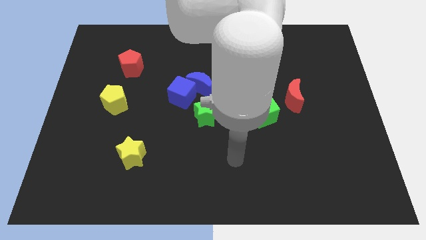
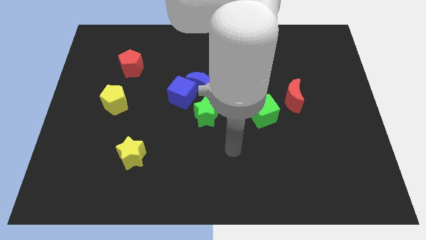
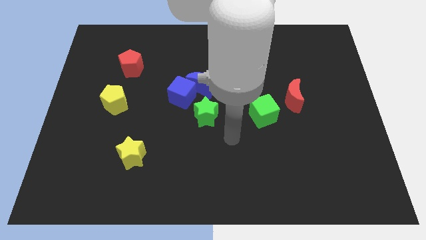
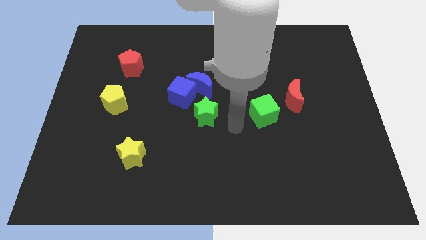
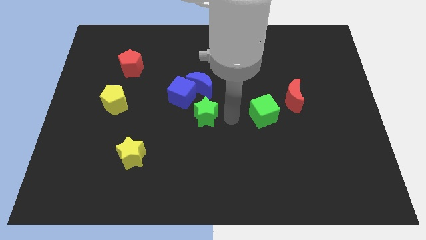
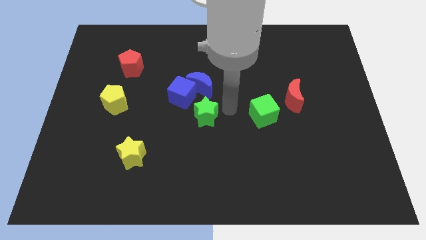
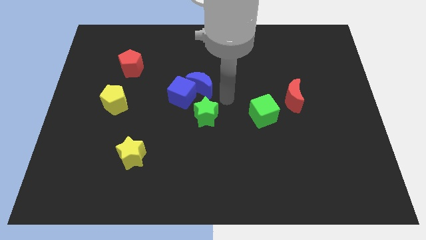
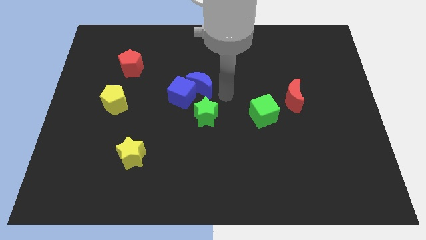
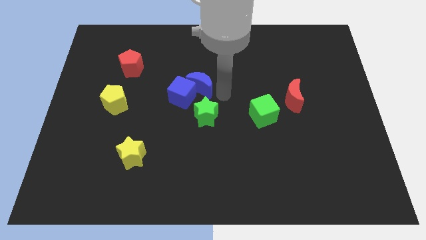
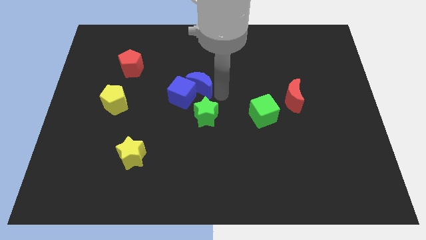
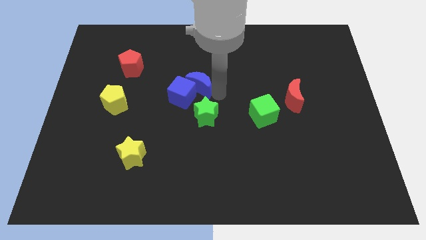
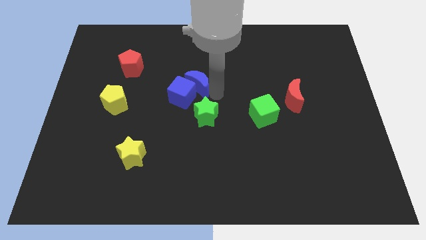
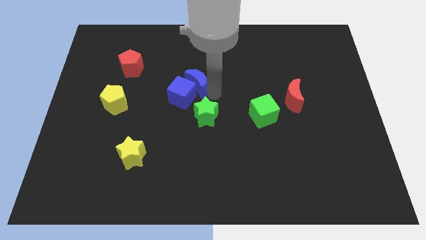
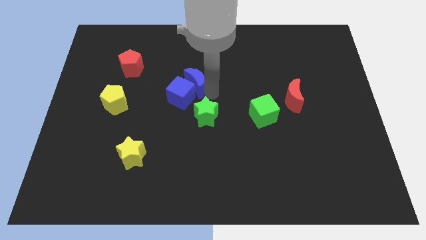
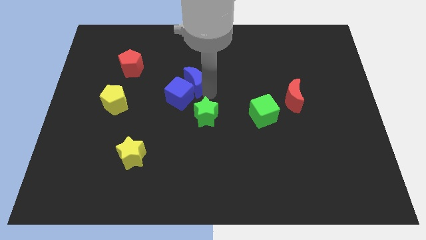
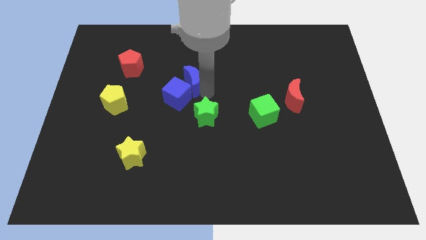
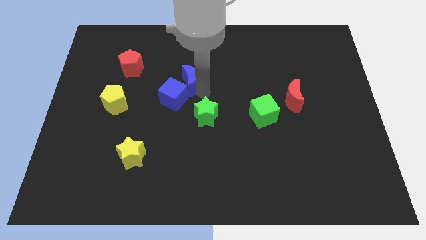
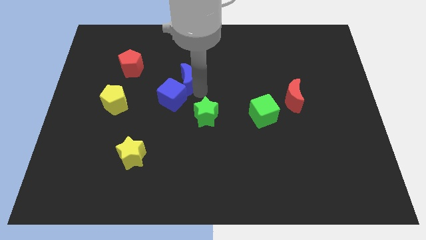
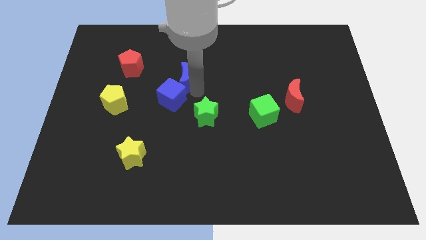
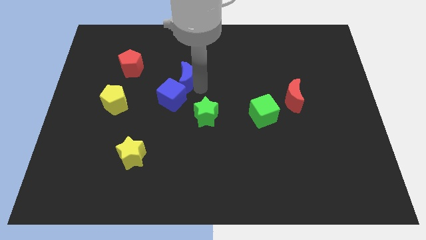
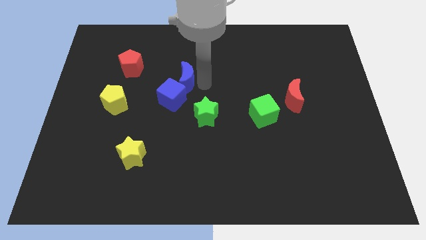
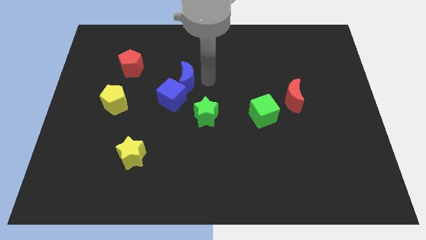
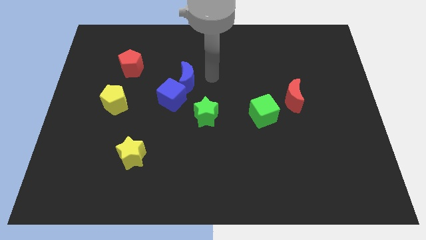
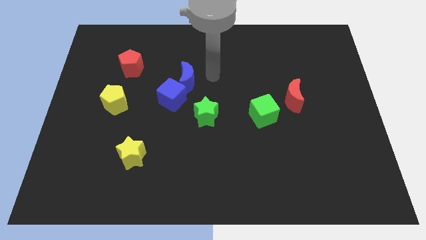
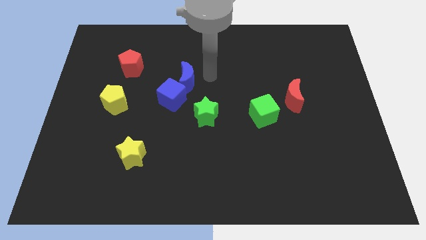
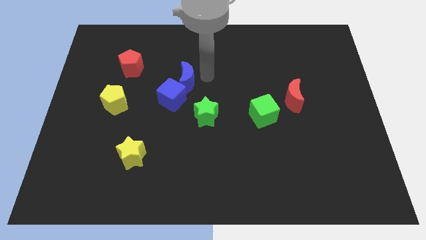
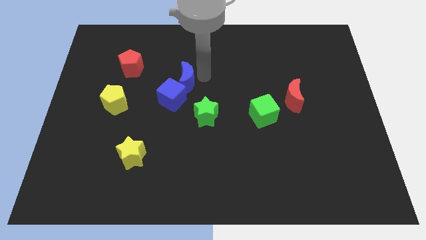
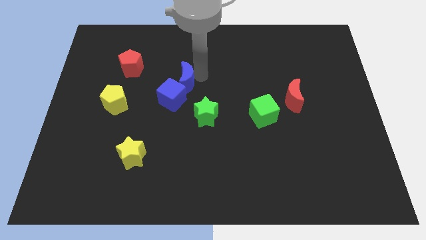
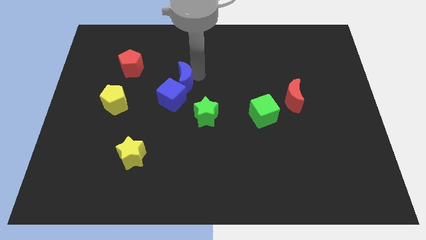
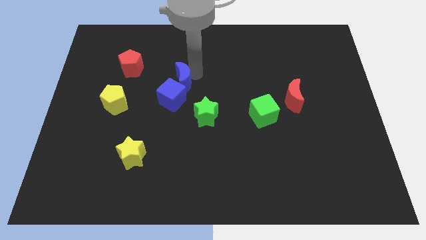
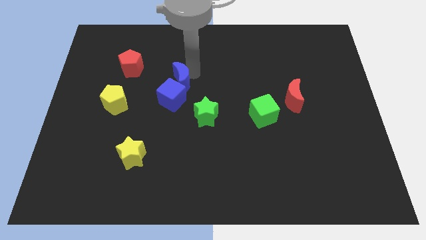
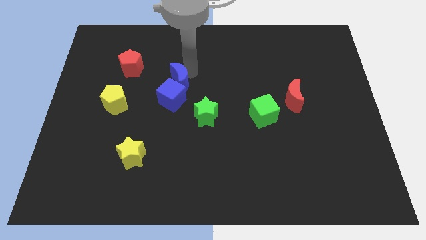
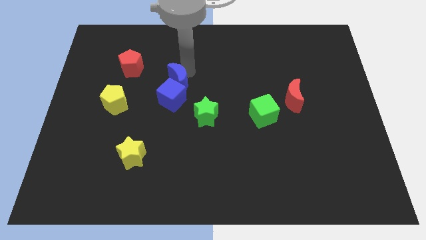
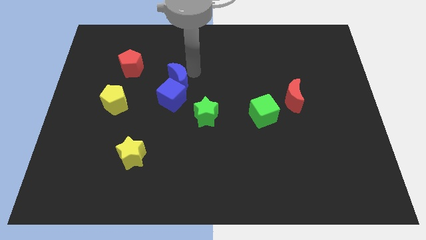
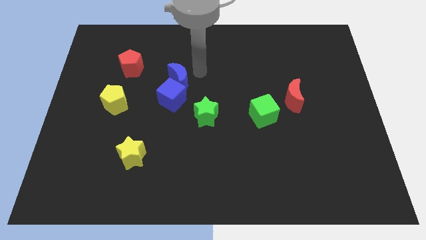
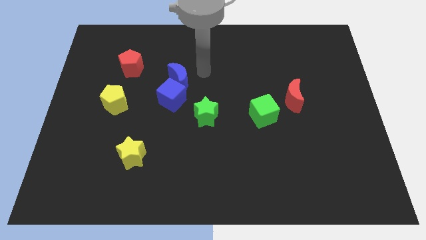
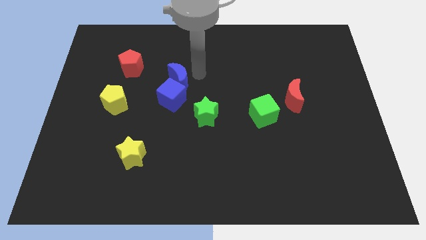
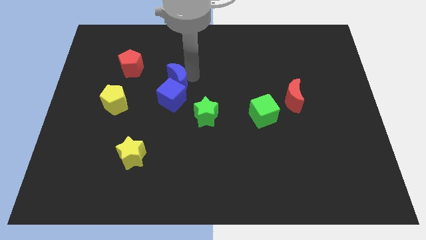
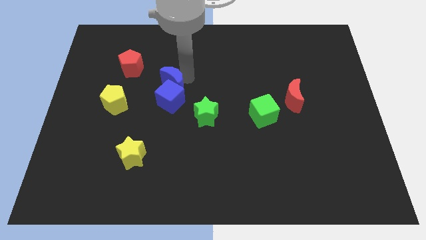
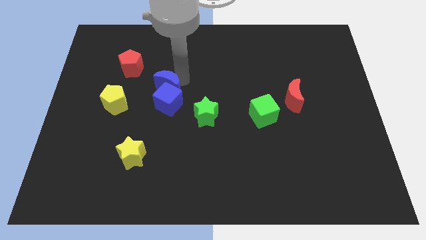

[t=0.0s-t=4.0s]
slide the blue moon to the left somewhat

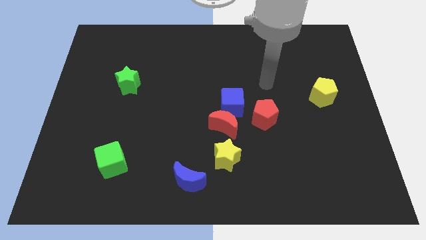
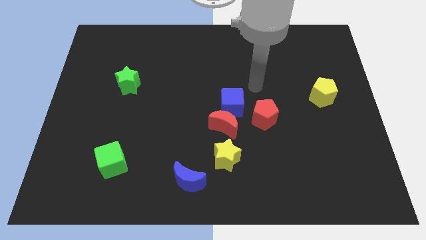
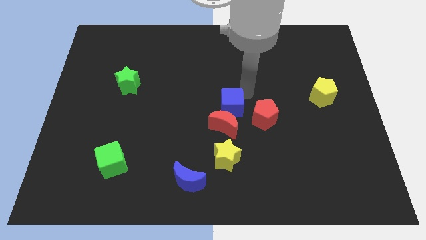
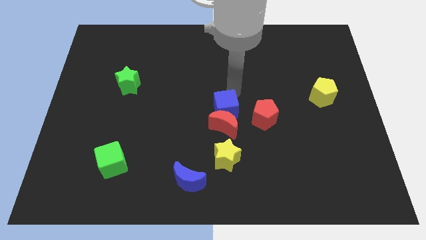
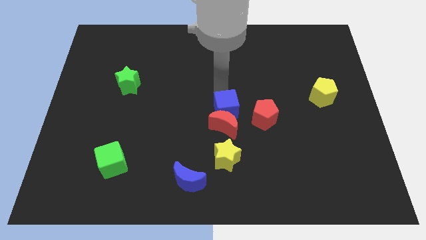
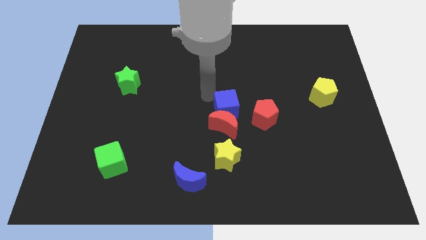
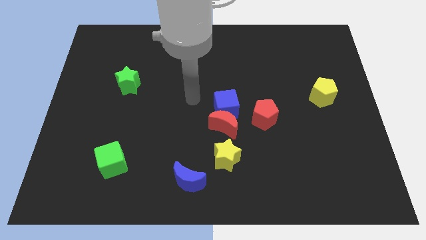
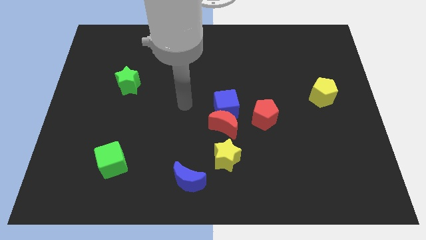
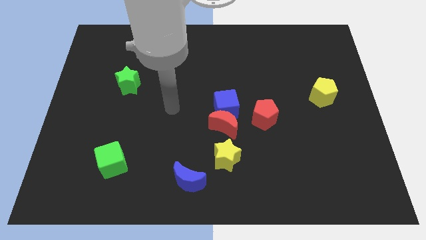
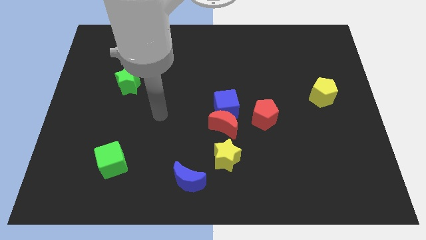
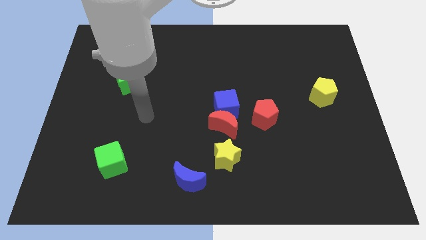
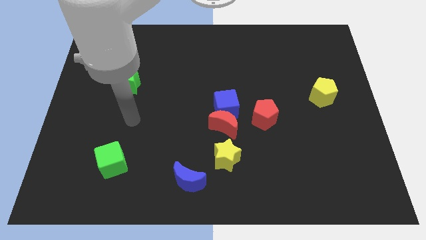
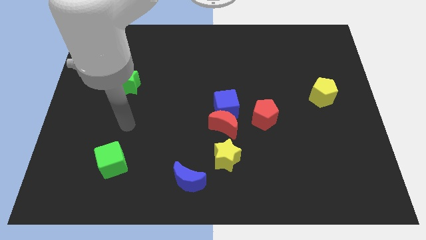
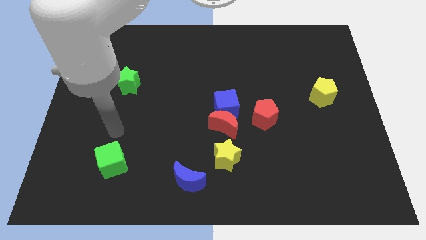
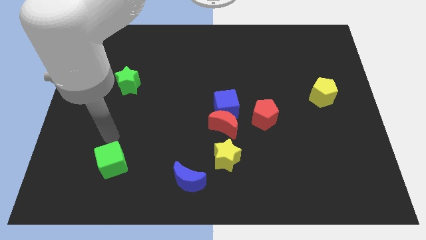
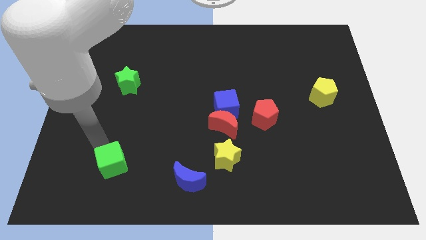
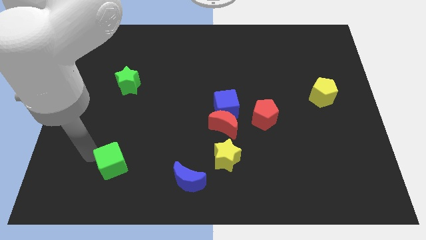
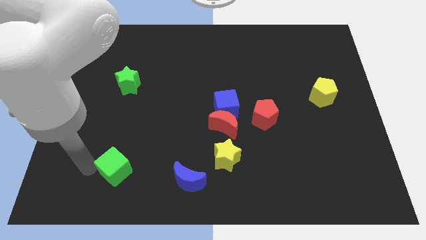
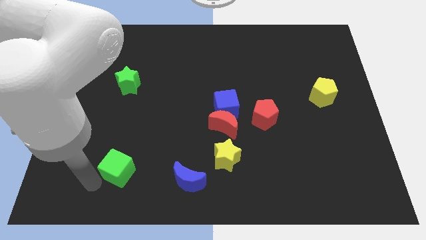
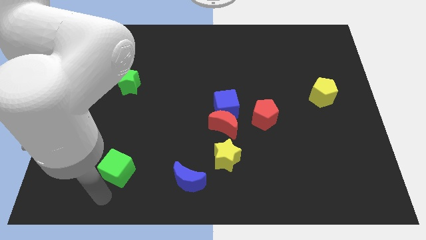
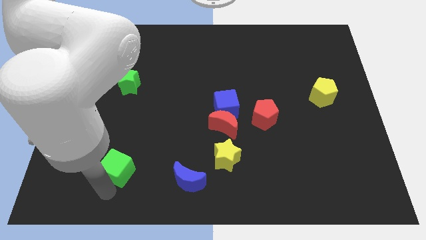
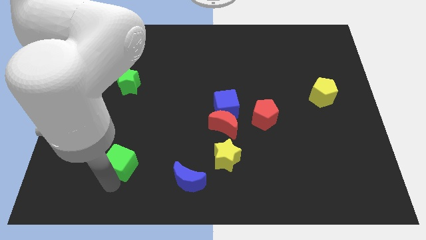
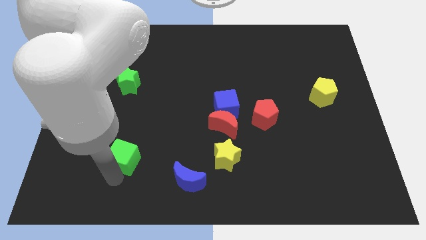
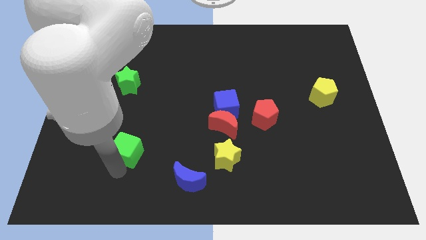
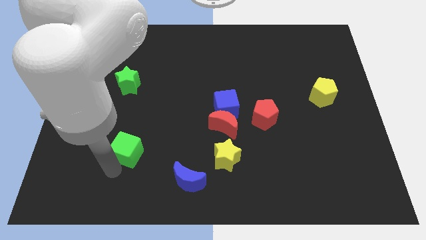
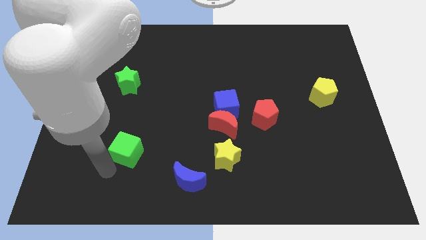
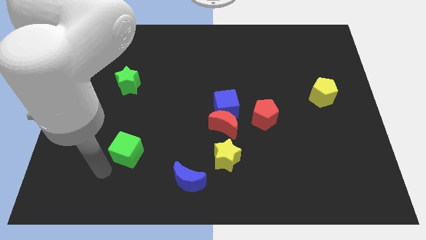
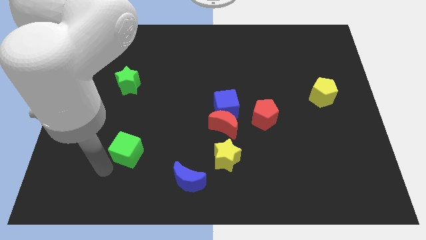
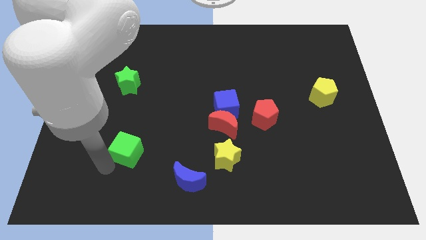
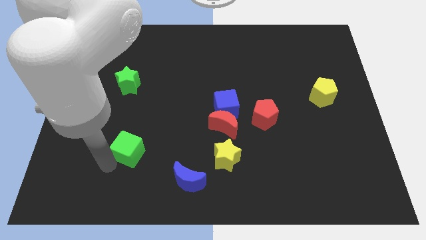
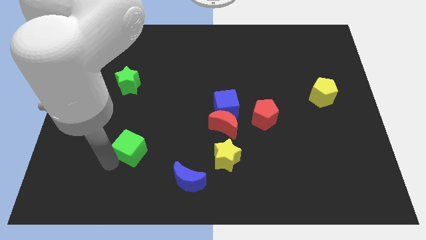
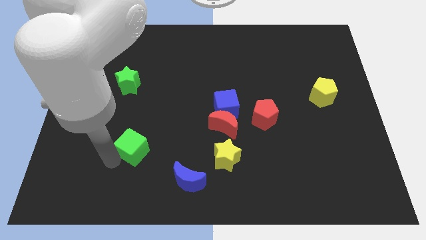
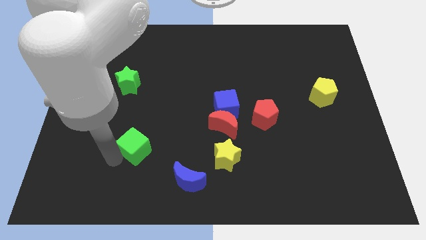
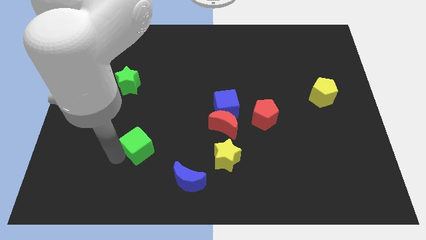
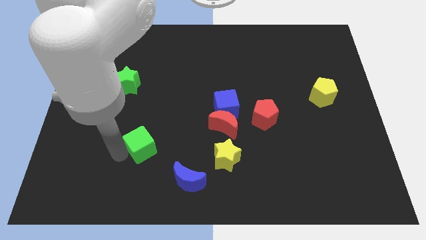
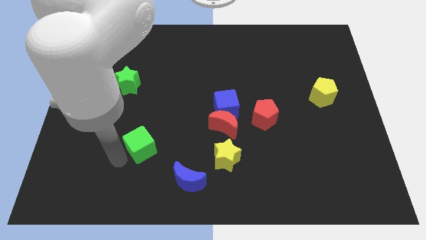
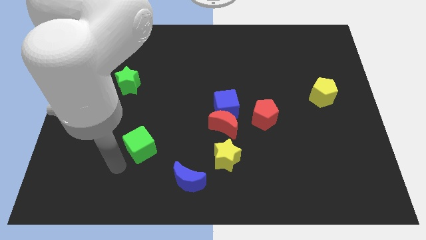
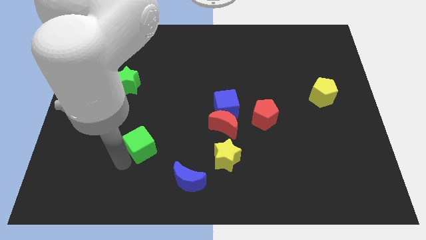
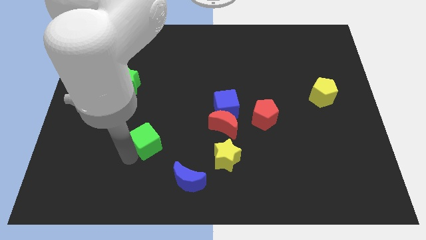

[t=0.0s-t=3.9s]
push the green cube slightly up and then to the right
